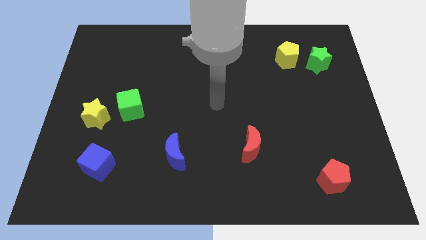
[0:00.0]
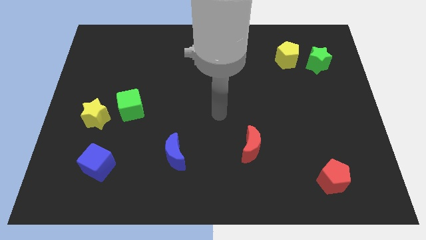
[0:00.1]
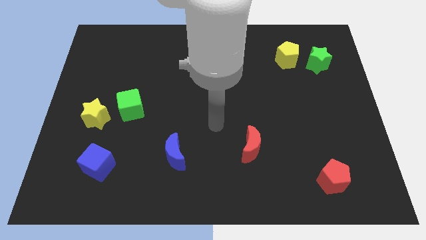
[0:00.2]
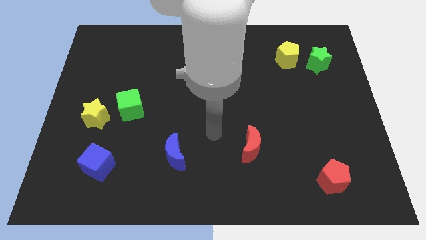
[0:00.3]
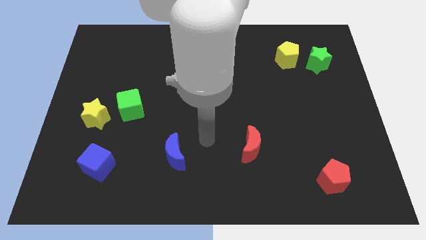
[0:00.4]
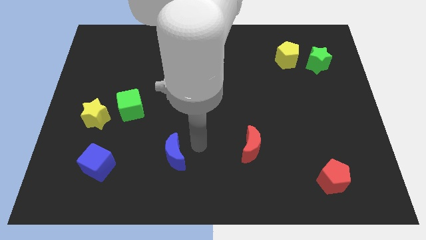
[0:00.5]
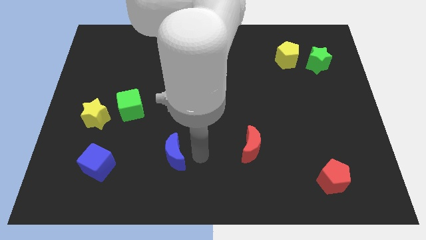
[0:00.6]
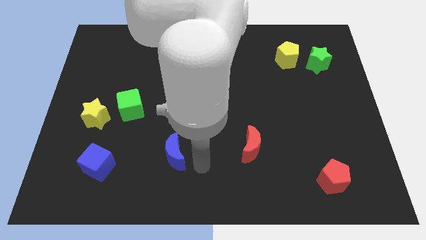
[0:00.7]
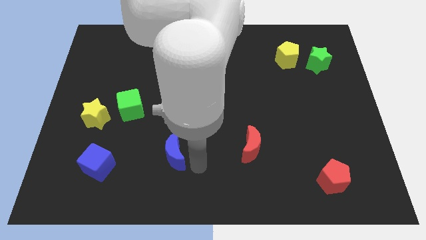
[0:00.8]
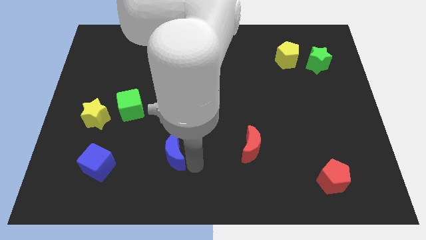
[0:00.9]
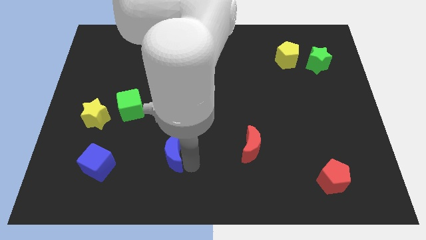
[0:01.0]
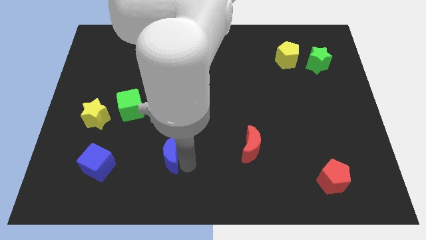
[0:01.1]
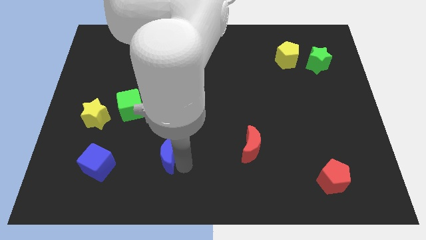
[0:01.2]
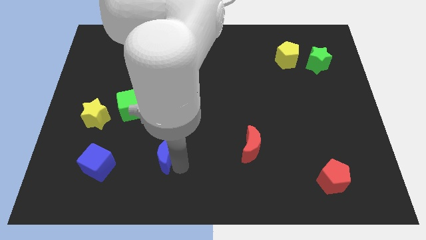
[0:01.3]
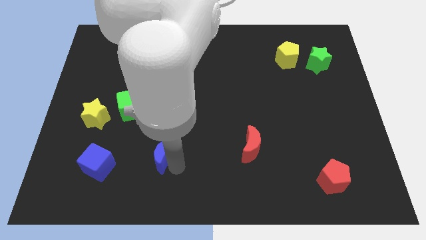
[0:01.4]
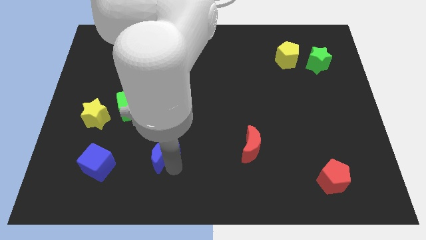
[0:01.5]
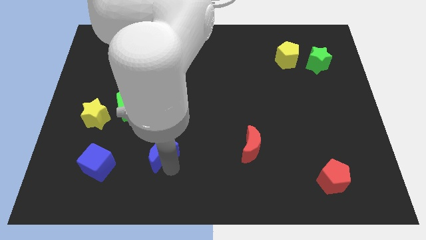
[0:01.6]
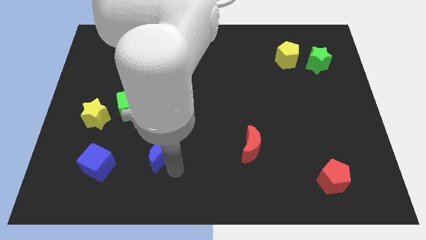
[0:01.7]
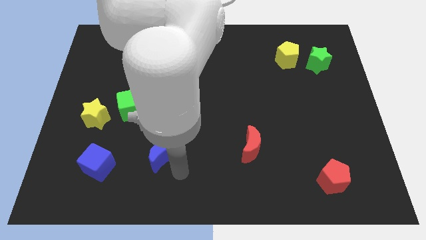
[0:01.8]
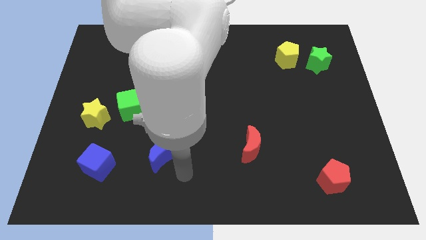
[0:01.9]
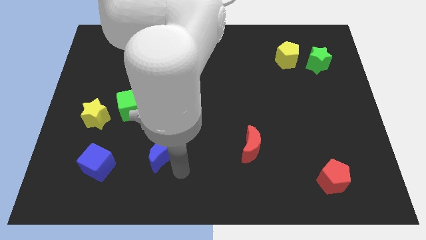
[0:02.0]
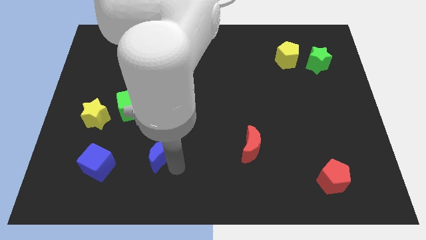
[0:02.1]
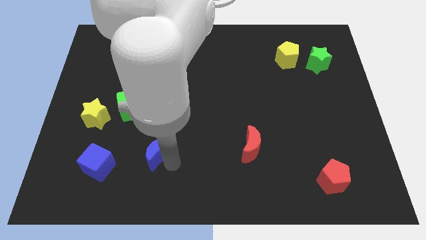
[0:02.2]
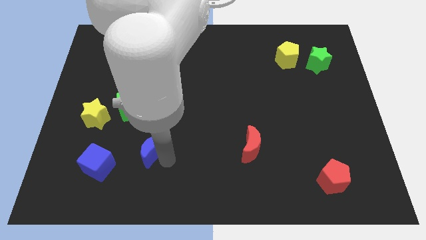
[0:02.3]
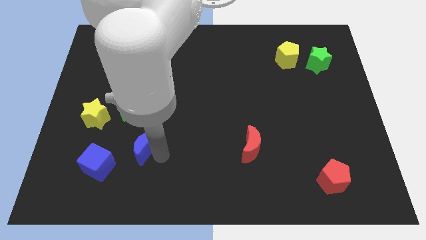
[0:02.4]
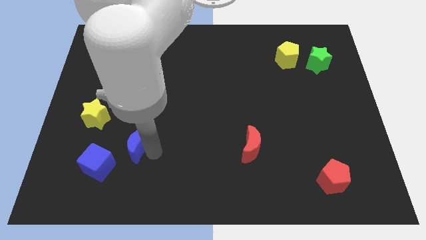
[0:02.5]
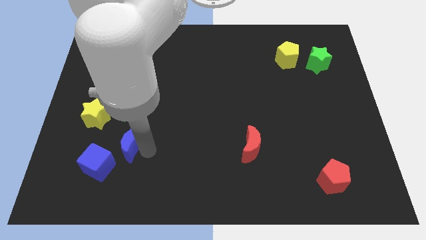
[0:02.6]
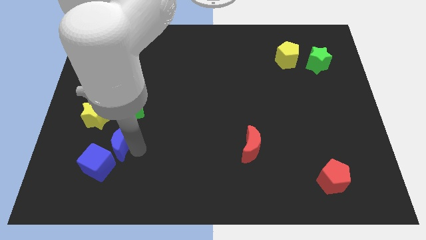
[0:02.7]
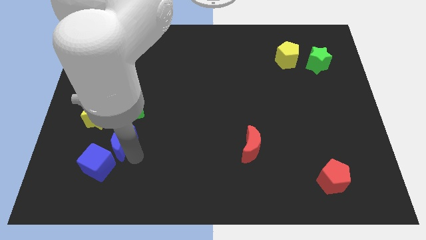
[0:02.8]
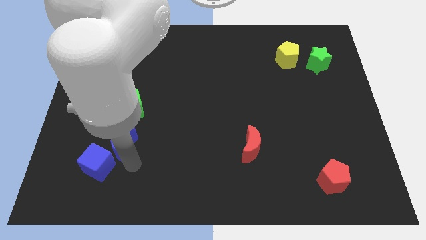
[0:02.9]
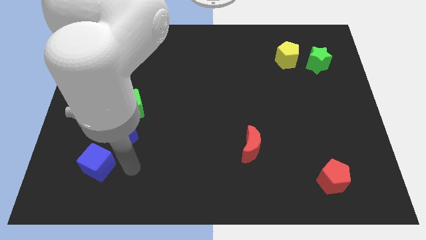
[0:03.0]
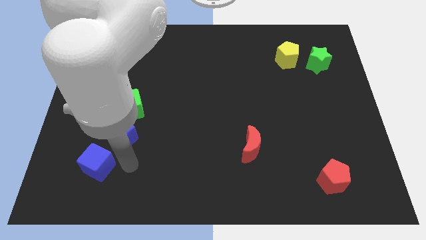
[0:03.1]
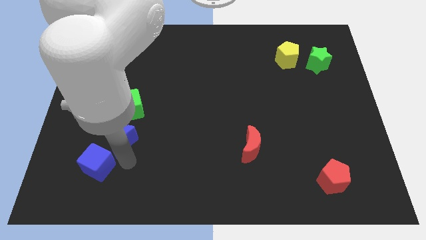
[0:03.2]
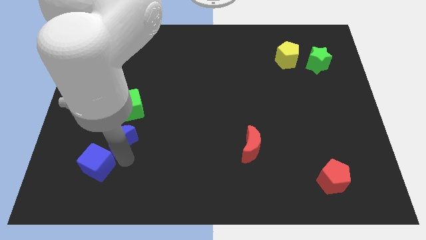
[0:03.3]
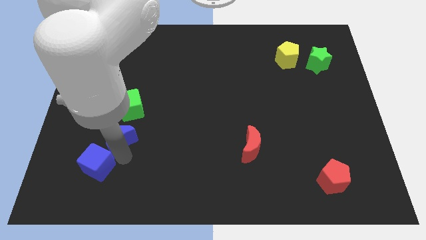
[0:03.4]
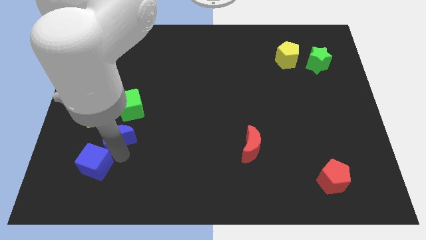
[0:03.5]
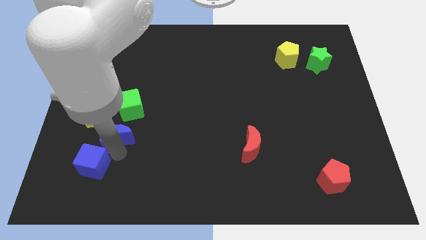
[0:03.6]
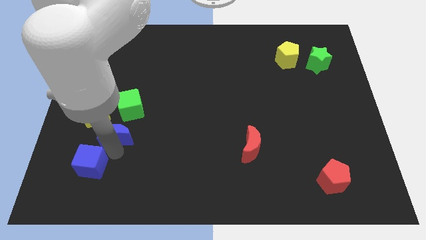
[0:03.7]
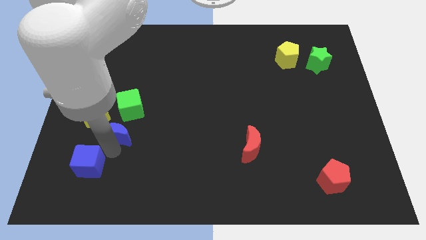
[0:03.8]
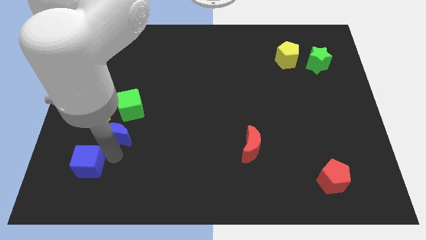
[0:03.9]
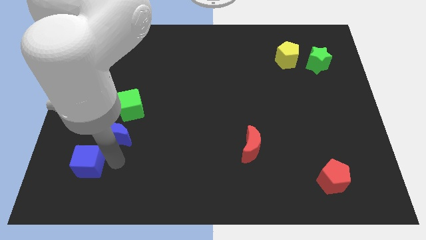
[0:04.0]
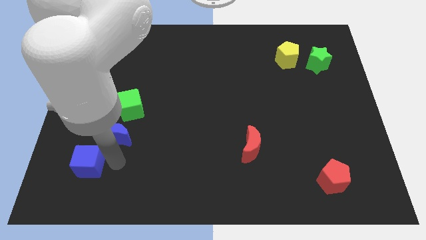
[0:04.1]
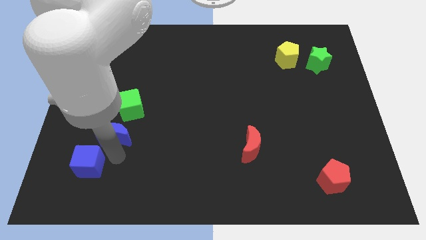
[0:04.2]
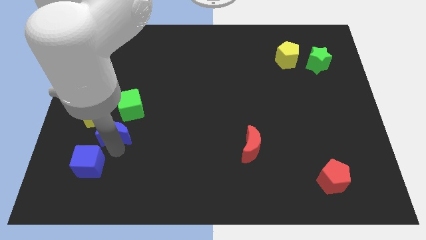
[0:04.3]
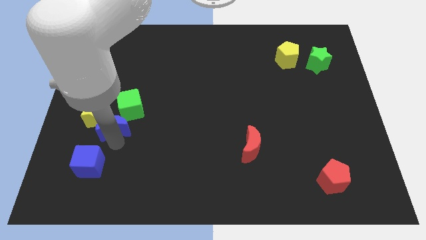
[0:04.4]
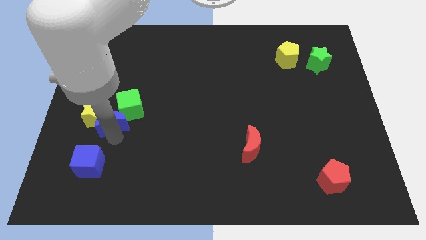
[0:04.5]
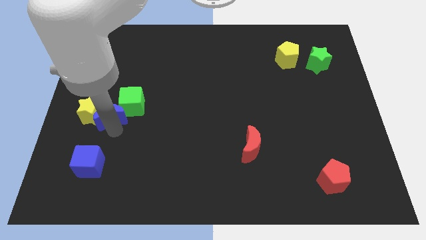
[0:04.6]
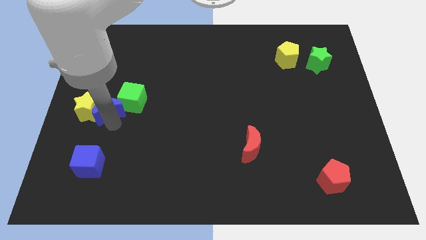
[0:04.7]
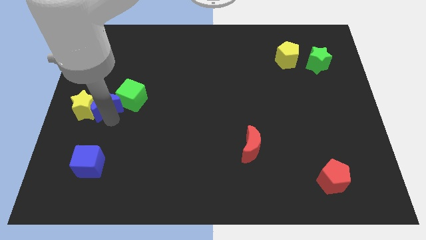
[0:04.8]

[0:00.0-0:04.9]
put the blue moon to the center left

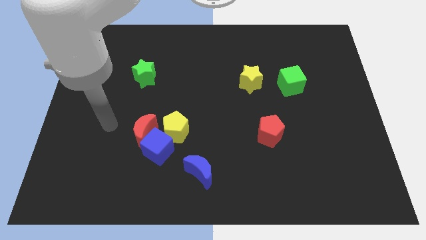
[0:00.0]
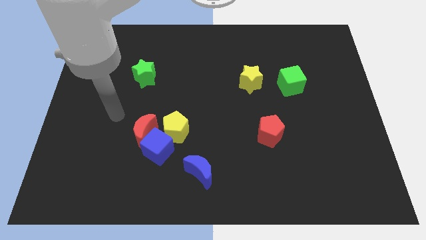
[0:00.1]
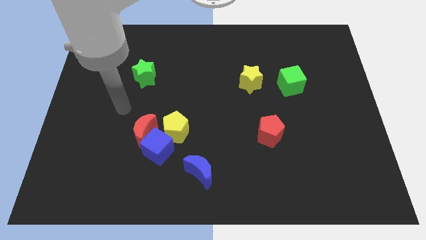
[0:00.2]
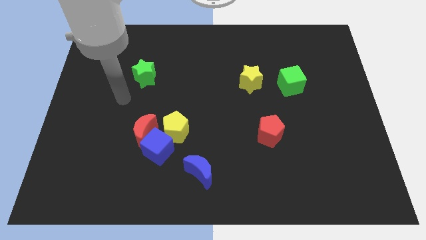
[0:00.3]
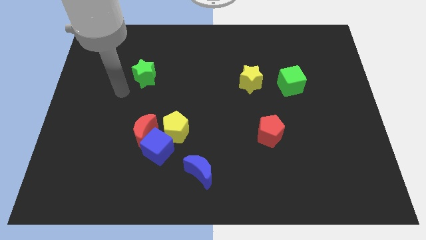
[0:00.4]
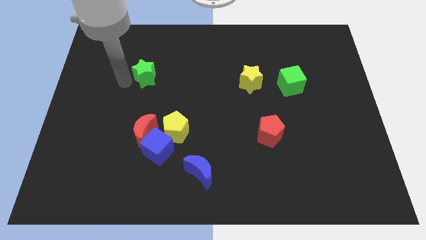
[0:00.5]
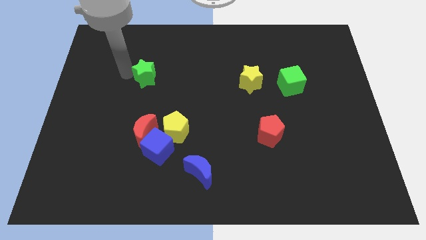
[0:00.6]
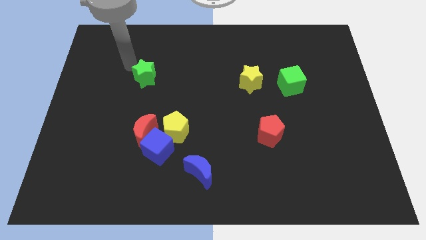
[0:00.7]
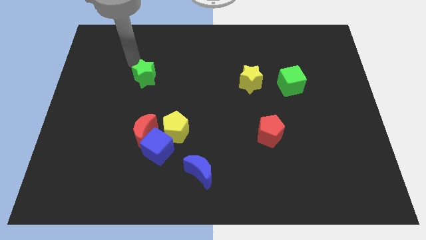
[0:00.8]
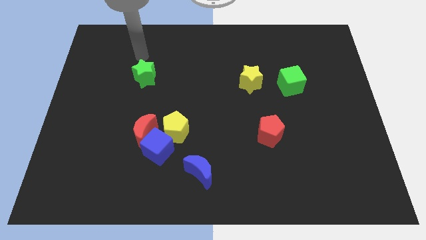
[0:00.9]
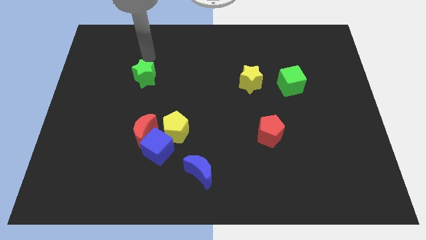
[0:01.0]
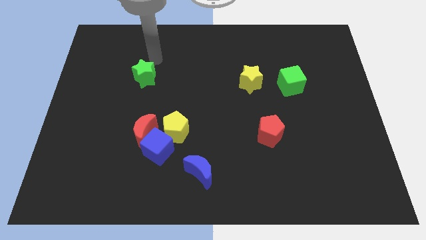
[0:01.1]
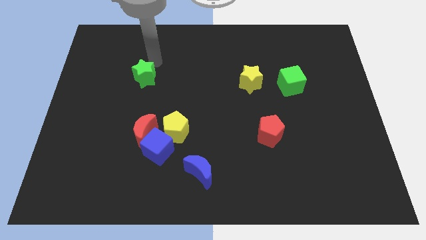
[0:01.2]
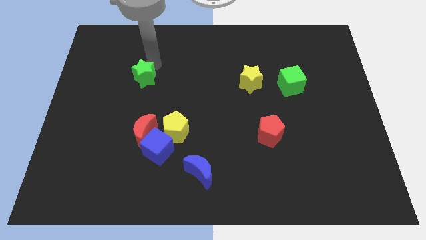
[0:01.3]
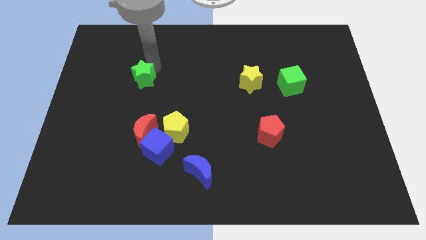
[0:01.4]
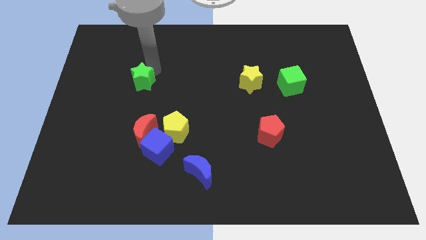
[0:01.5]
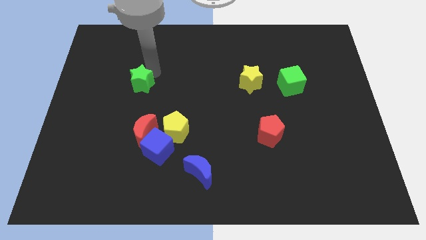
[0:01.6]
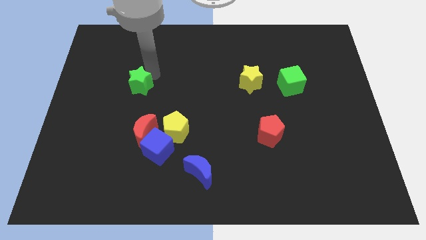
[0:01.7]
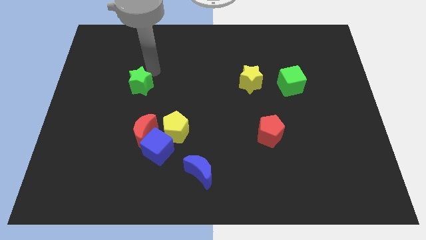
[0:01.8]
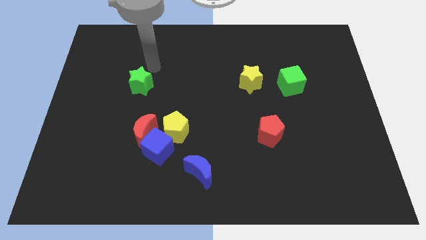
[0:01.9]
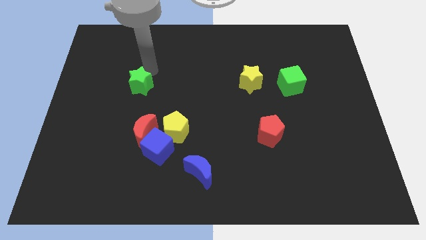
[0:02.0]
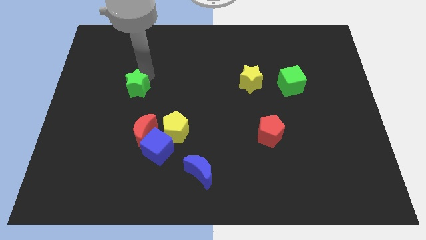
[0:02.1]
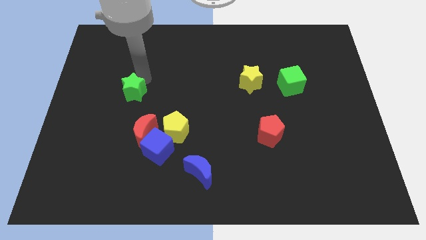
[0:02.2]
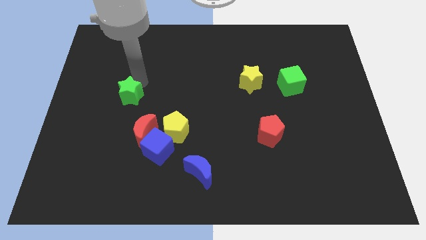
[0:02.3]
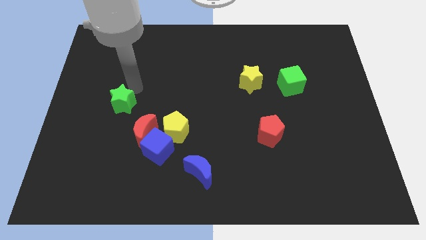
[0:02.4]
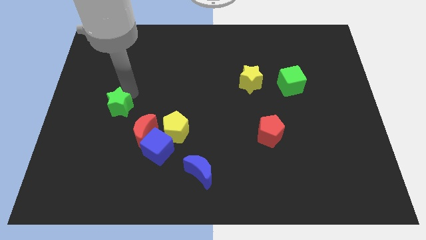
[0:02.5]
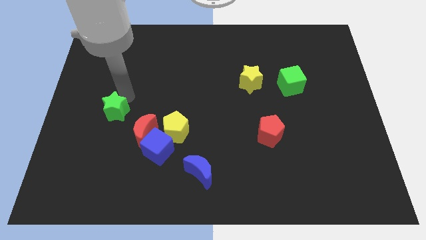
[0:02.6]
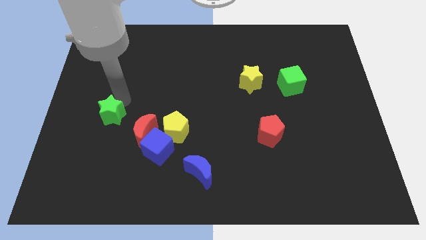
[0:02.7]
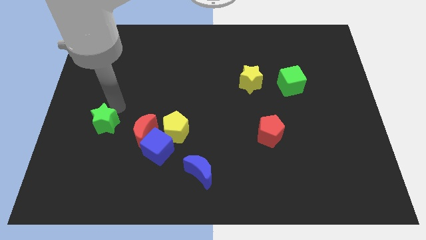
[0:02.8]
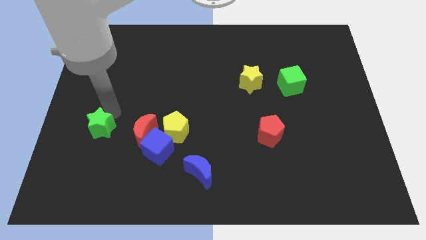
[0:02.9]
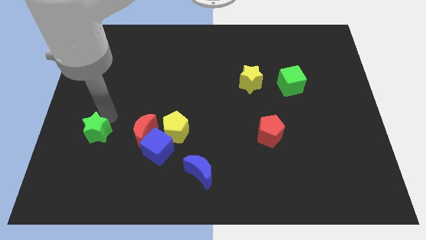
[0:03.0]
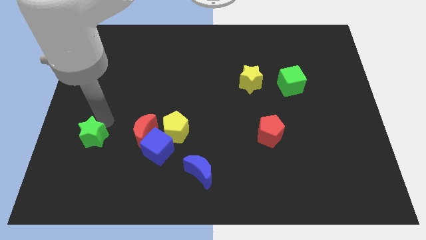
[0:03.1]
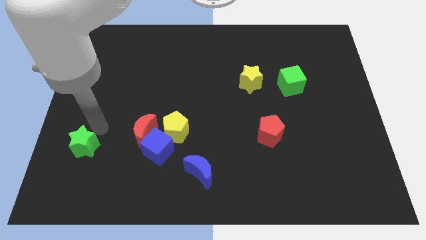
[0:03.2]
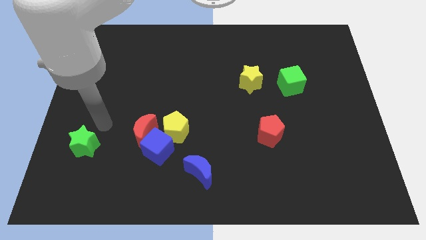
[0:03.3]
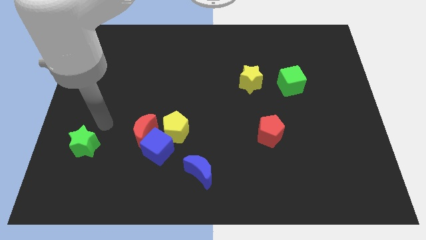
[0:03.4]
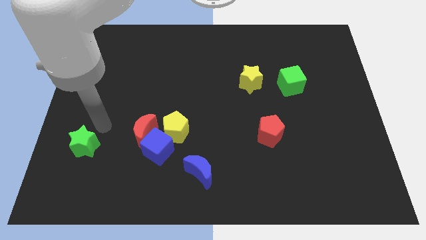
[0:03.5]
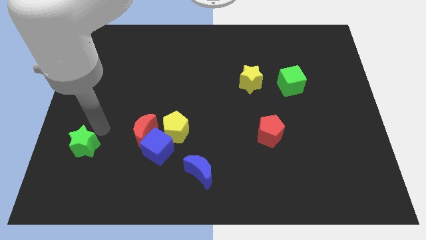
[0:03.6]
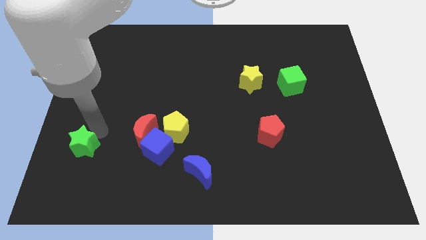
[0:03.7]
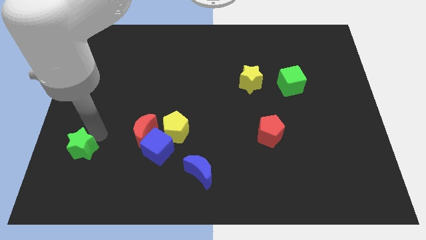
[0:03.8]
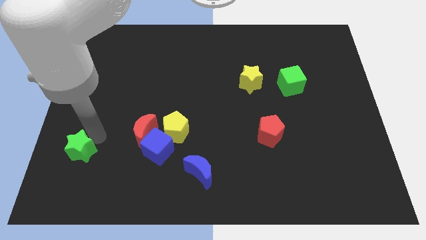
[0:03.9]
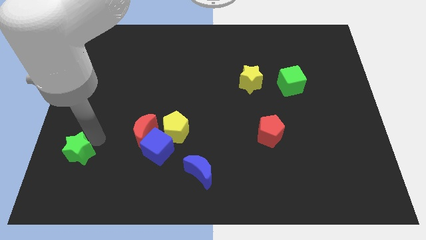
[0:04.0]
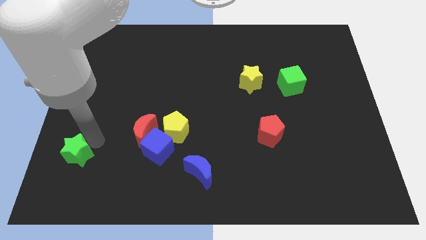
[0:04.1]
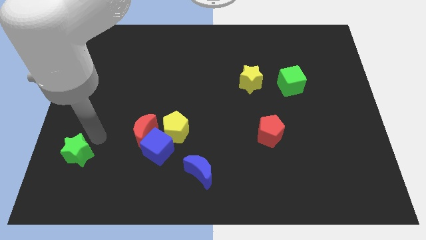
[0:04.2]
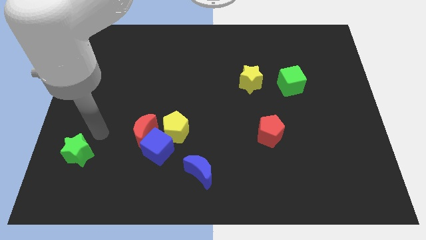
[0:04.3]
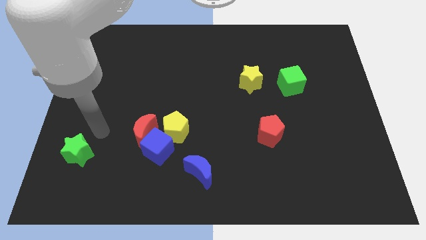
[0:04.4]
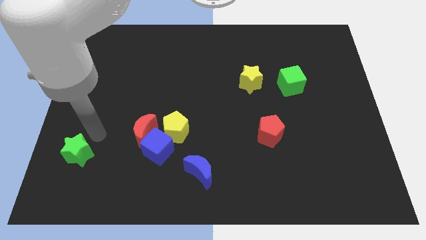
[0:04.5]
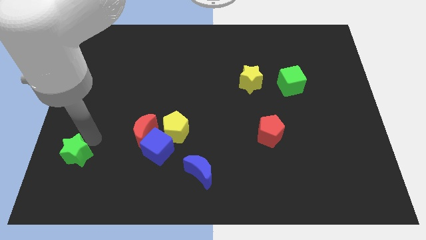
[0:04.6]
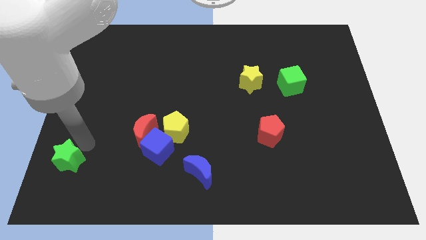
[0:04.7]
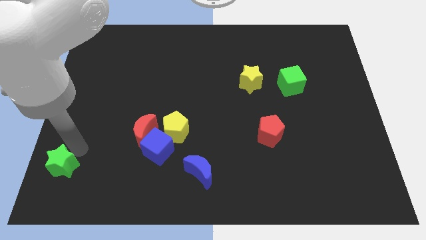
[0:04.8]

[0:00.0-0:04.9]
put the green star to the bottom left of the board
